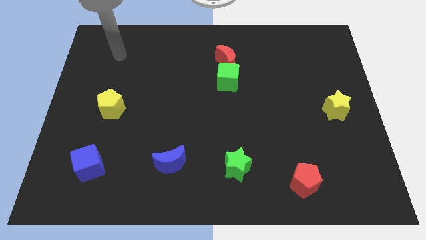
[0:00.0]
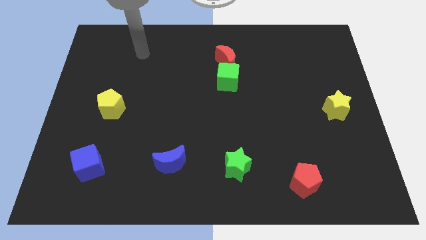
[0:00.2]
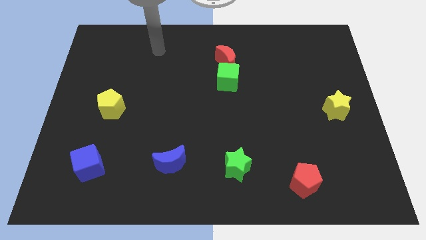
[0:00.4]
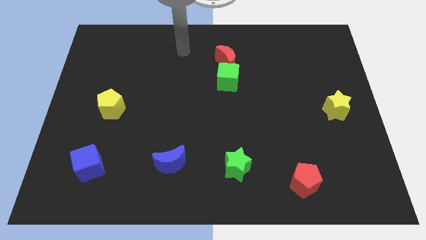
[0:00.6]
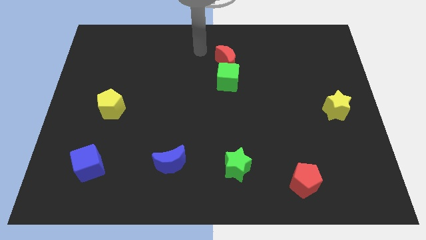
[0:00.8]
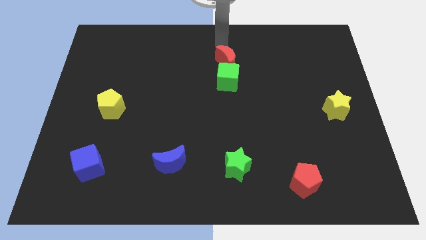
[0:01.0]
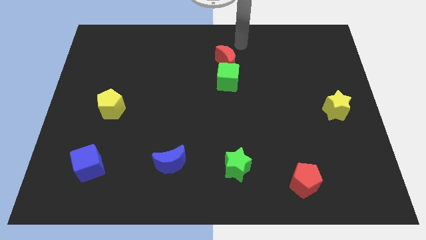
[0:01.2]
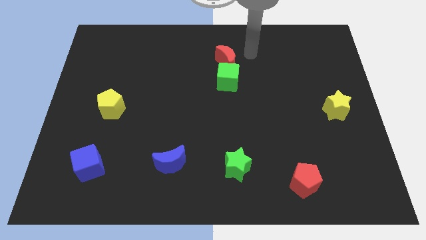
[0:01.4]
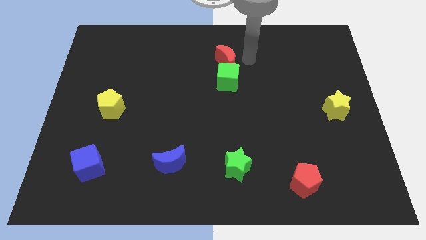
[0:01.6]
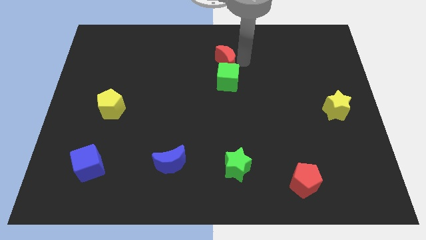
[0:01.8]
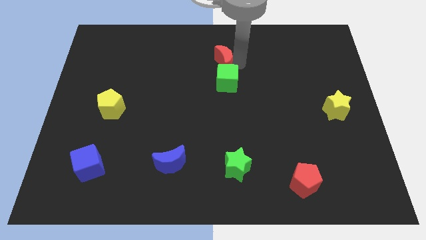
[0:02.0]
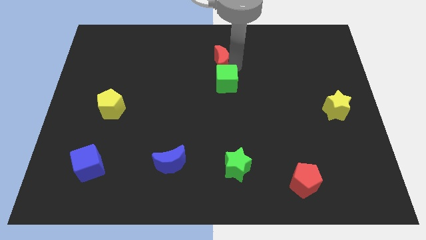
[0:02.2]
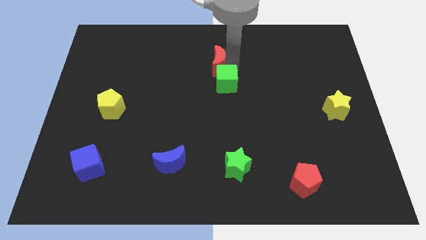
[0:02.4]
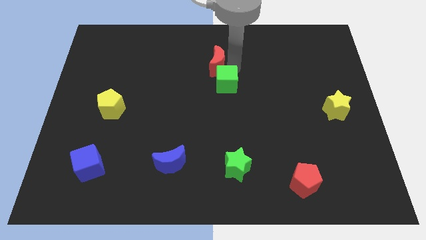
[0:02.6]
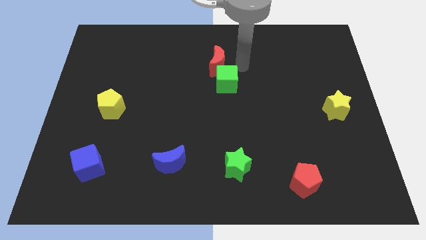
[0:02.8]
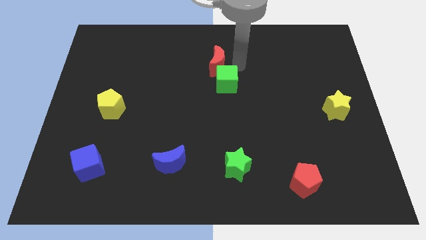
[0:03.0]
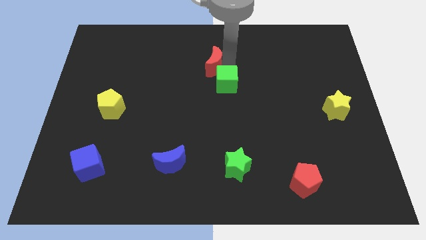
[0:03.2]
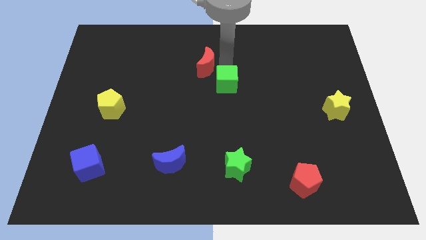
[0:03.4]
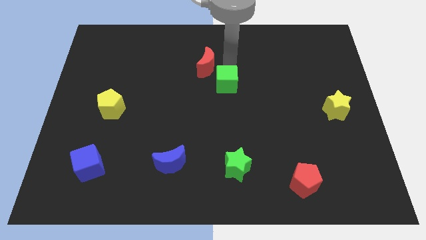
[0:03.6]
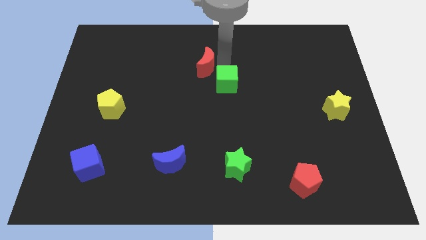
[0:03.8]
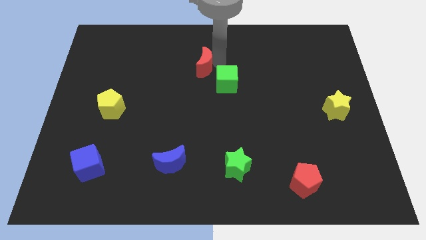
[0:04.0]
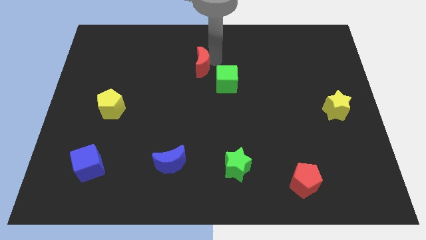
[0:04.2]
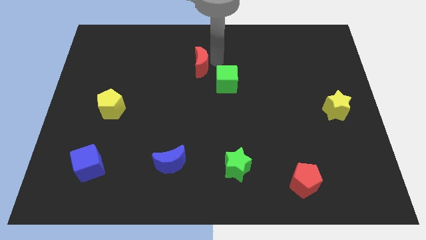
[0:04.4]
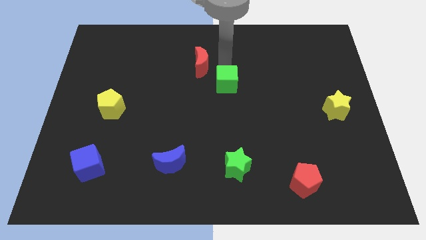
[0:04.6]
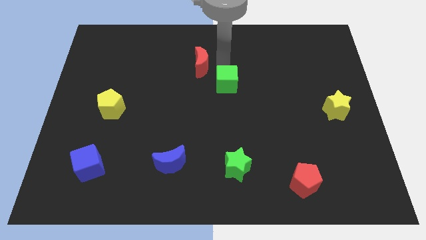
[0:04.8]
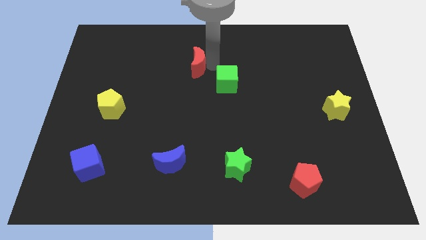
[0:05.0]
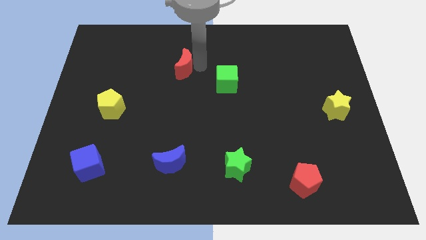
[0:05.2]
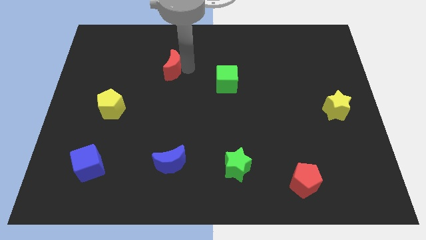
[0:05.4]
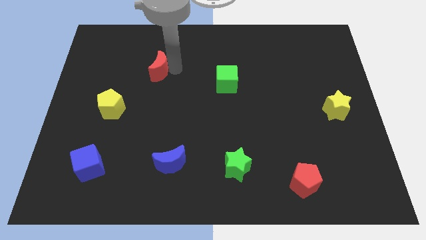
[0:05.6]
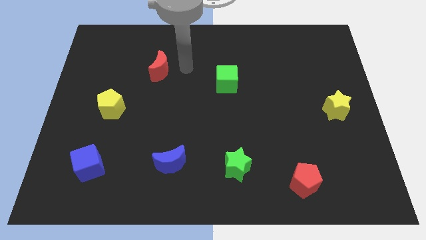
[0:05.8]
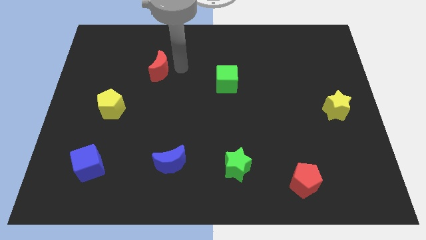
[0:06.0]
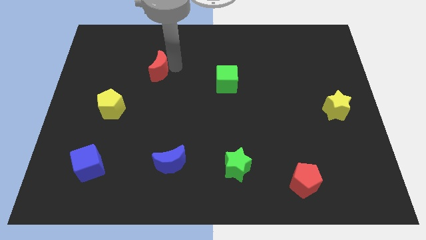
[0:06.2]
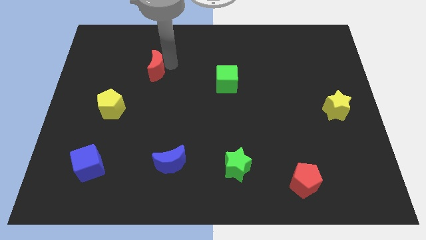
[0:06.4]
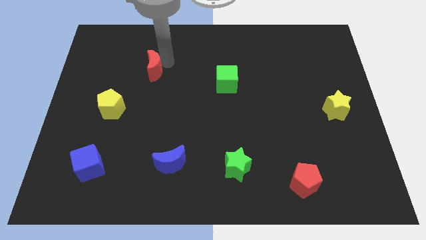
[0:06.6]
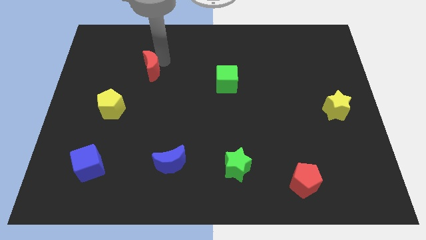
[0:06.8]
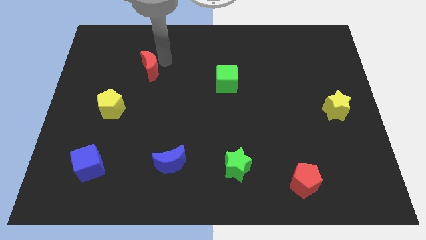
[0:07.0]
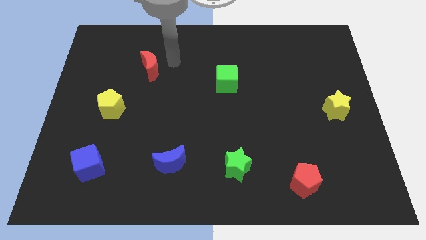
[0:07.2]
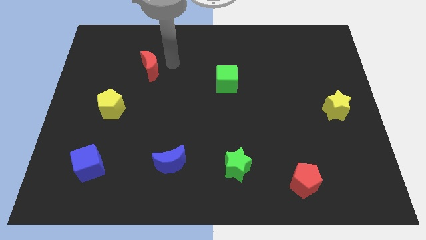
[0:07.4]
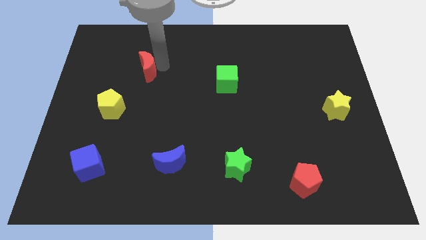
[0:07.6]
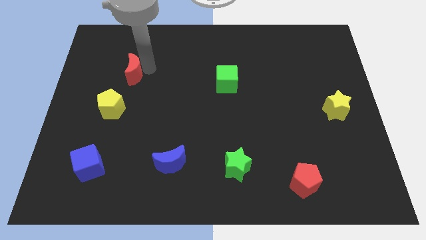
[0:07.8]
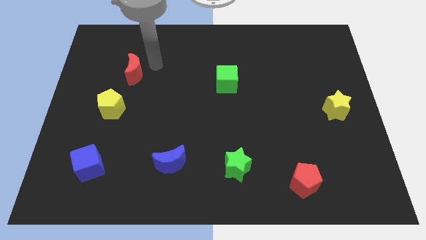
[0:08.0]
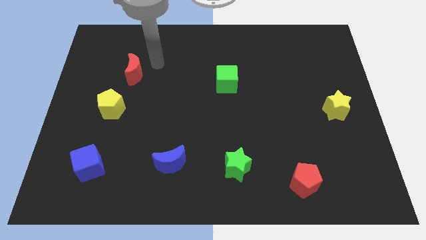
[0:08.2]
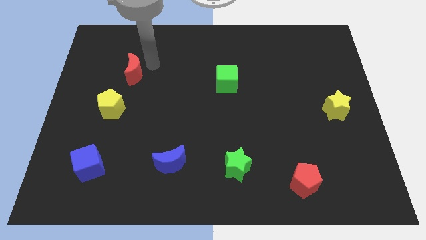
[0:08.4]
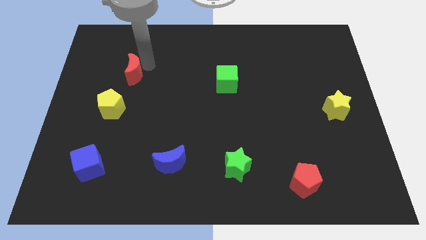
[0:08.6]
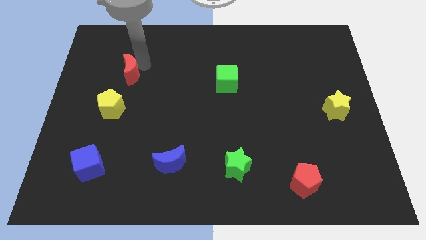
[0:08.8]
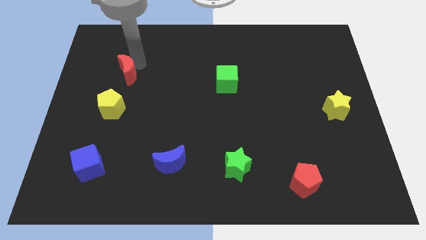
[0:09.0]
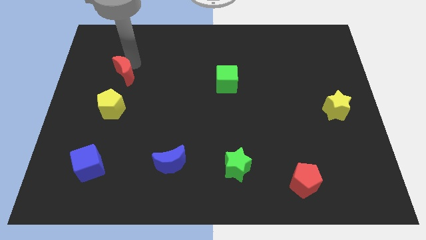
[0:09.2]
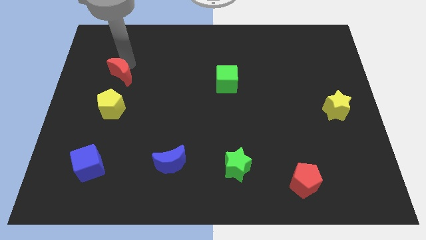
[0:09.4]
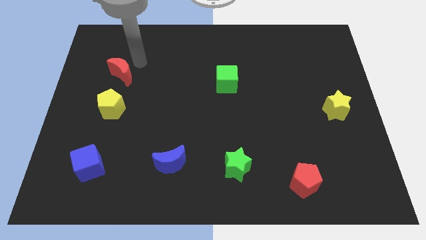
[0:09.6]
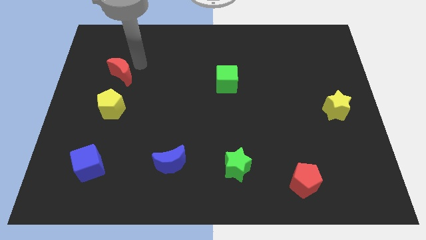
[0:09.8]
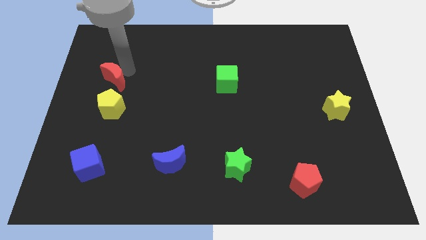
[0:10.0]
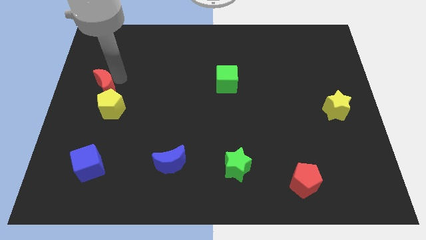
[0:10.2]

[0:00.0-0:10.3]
push the red moon to the center left

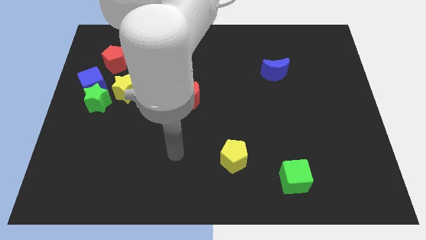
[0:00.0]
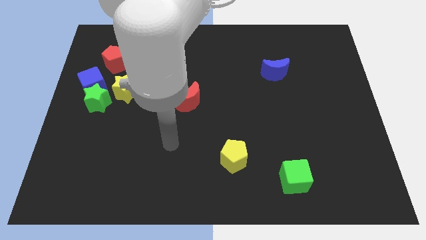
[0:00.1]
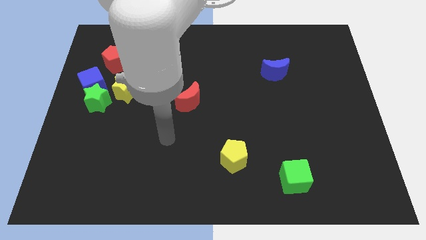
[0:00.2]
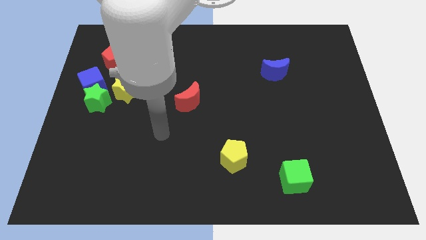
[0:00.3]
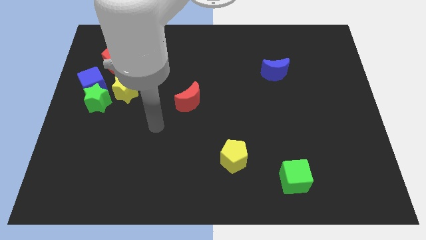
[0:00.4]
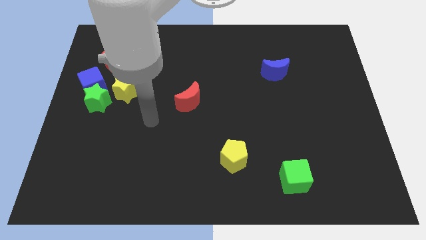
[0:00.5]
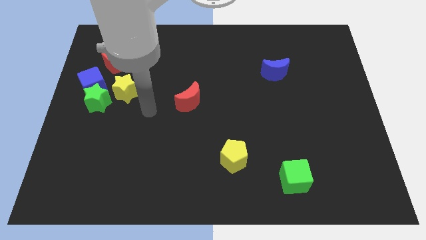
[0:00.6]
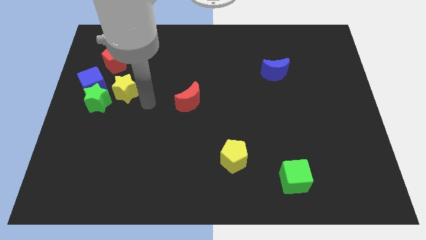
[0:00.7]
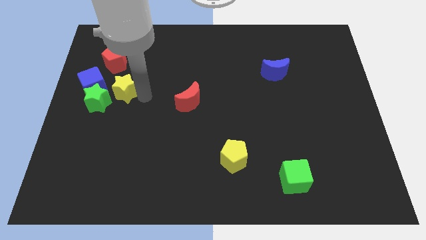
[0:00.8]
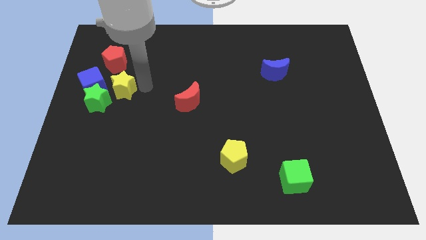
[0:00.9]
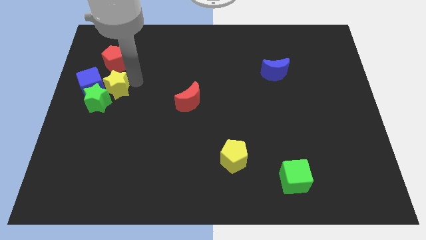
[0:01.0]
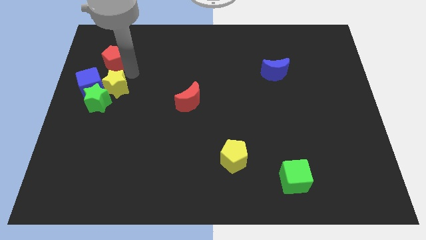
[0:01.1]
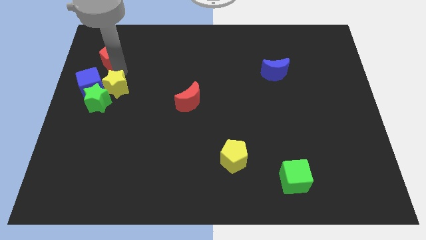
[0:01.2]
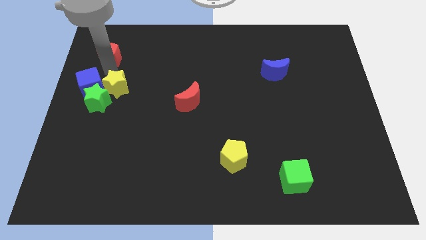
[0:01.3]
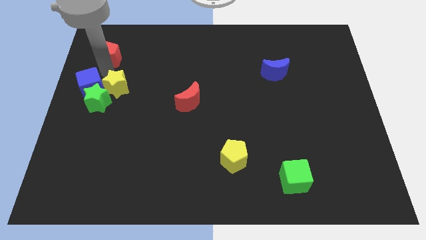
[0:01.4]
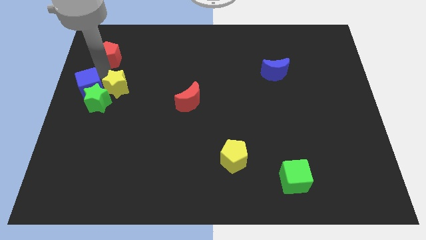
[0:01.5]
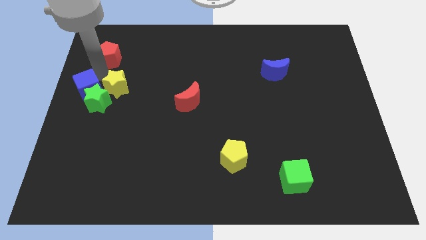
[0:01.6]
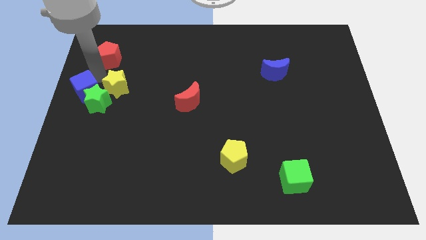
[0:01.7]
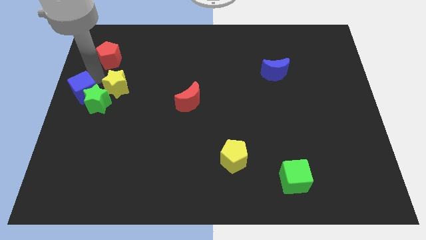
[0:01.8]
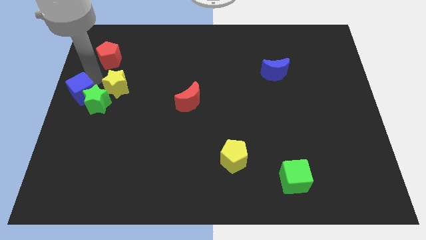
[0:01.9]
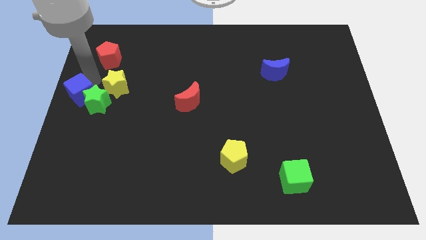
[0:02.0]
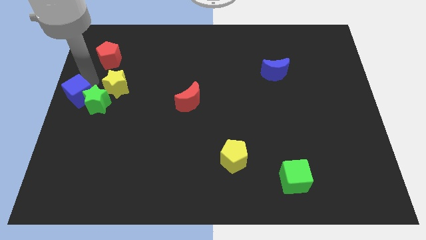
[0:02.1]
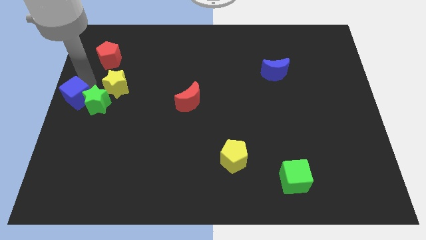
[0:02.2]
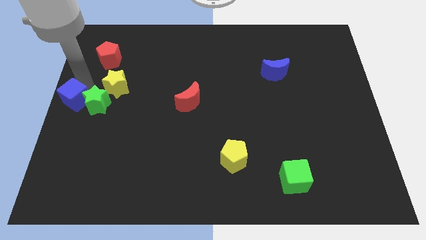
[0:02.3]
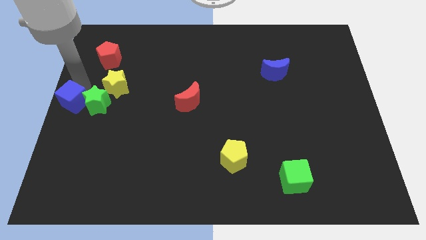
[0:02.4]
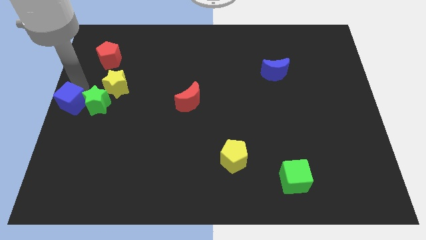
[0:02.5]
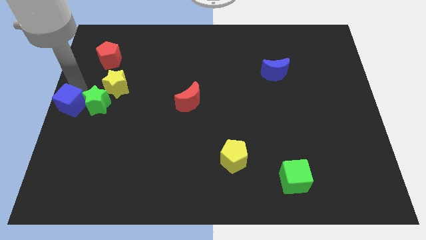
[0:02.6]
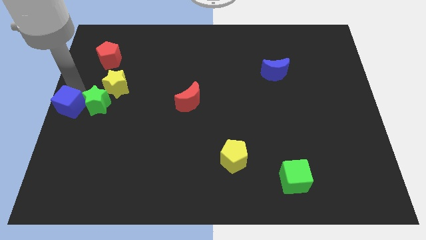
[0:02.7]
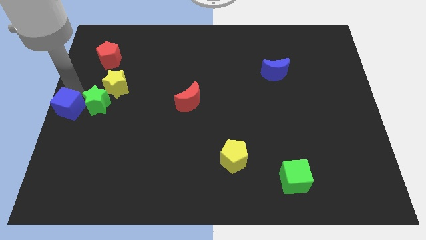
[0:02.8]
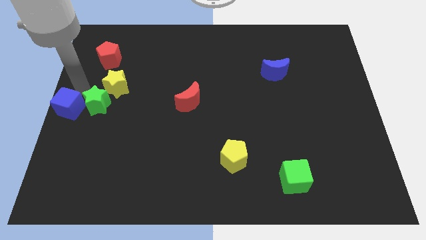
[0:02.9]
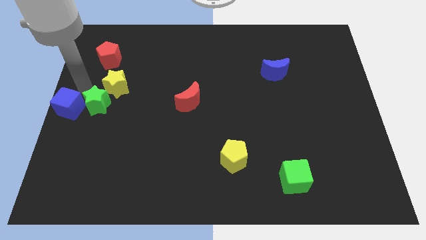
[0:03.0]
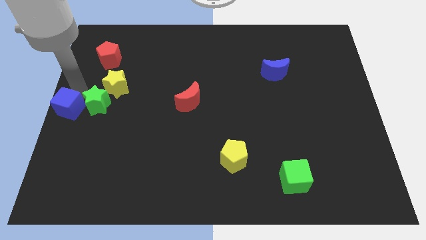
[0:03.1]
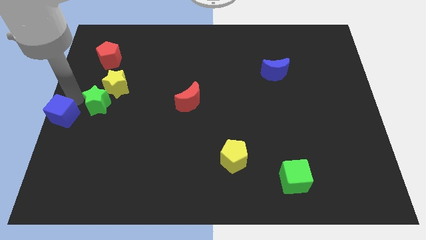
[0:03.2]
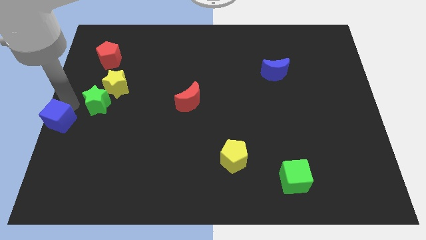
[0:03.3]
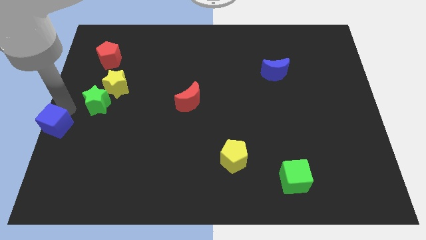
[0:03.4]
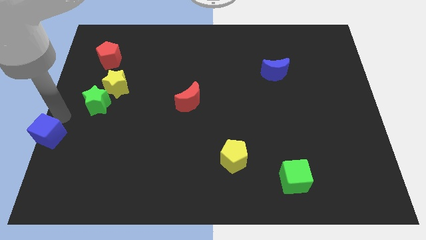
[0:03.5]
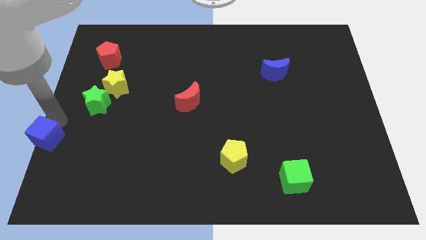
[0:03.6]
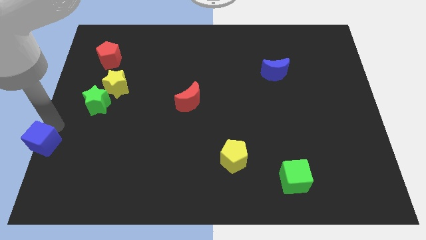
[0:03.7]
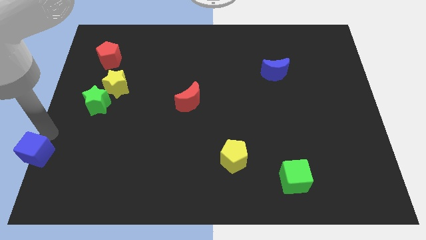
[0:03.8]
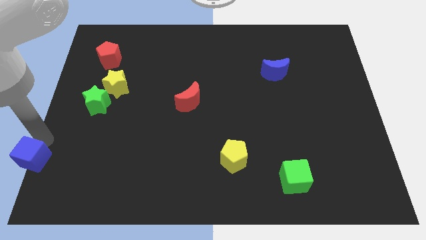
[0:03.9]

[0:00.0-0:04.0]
put the blue cube to the bottom left
